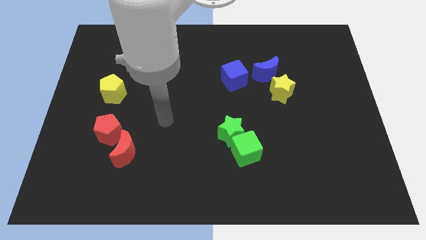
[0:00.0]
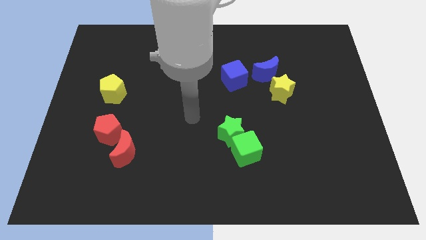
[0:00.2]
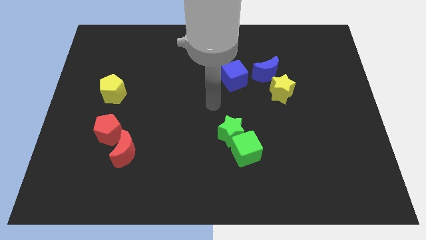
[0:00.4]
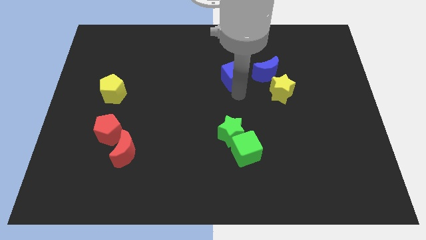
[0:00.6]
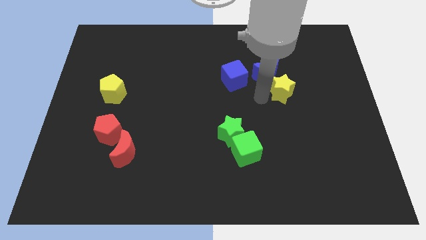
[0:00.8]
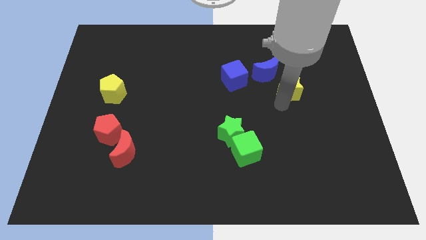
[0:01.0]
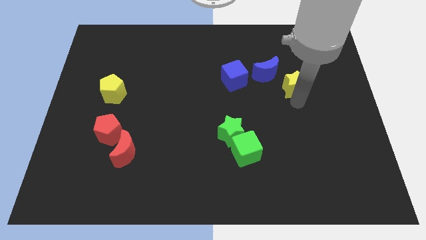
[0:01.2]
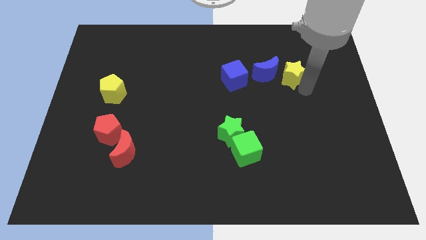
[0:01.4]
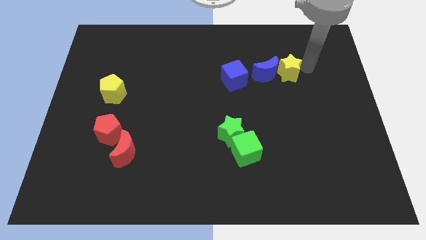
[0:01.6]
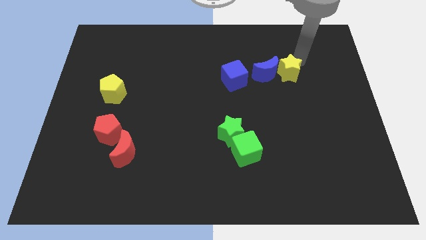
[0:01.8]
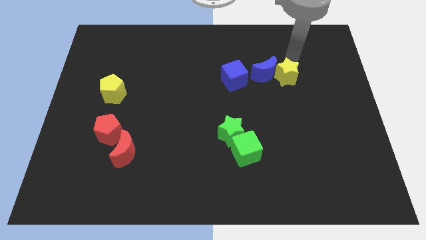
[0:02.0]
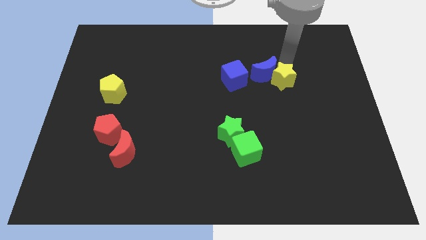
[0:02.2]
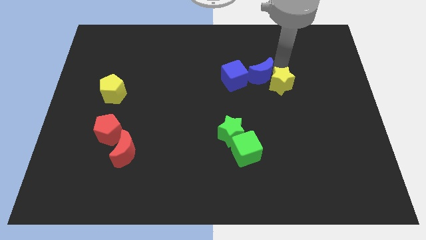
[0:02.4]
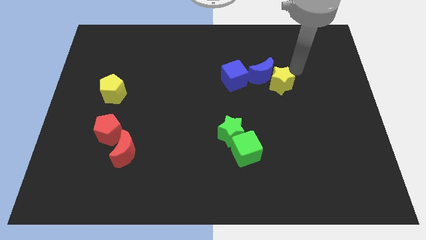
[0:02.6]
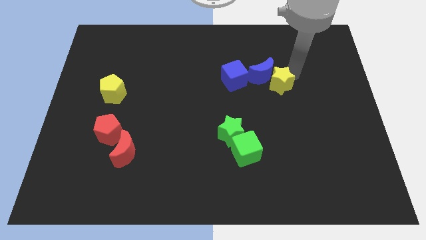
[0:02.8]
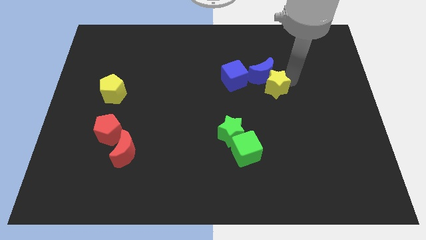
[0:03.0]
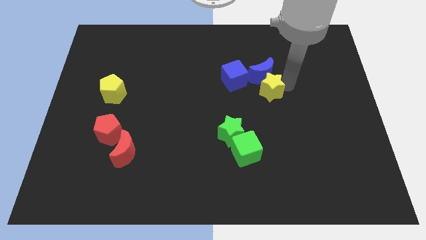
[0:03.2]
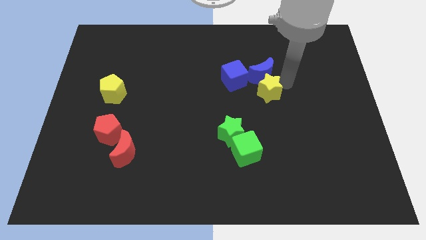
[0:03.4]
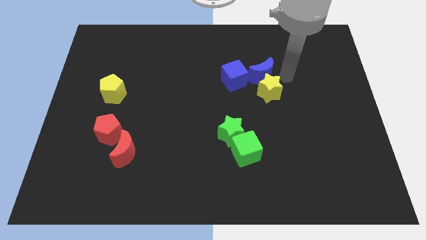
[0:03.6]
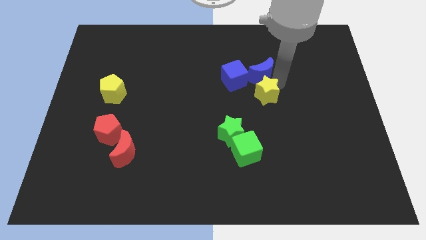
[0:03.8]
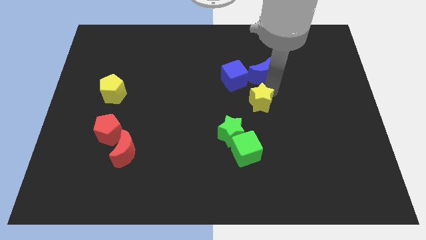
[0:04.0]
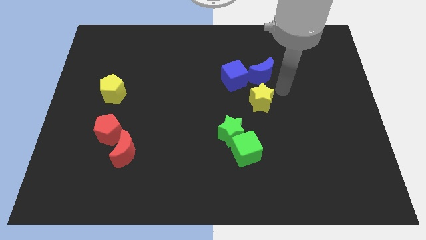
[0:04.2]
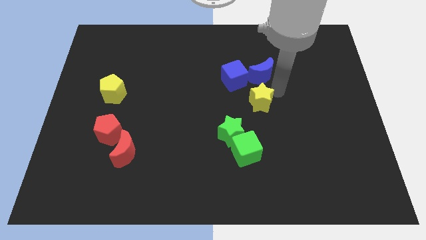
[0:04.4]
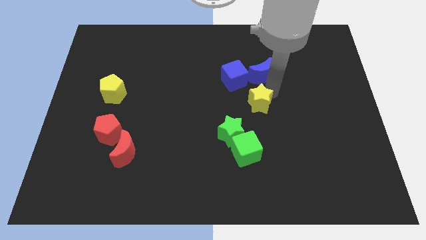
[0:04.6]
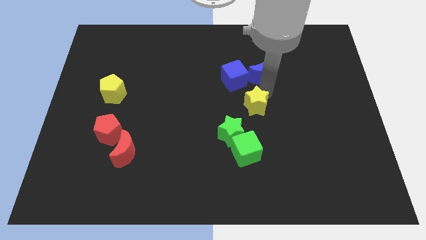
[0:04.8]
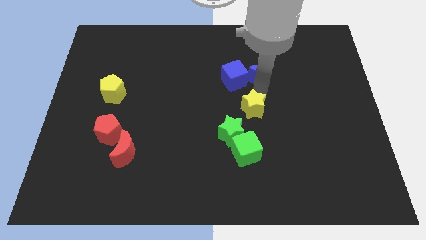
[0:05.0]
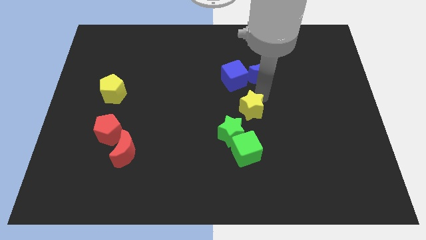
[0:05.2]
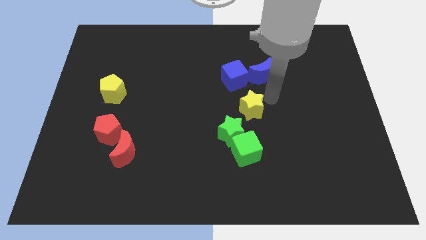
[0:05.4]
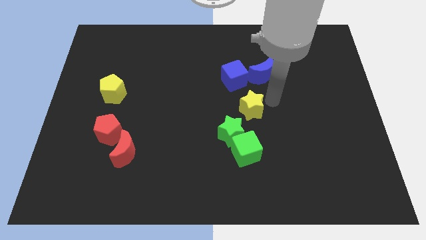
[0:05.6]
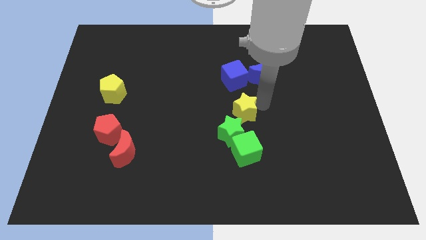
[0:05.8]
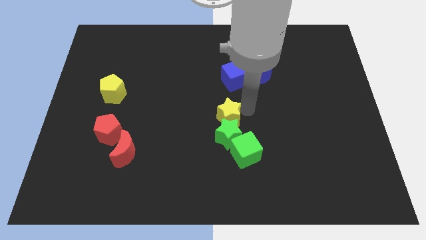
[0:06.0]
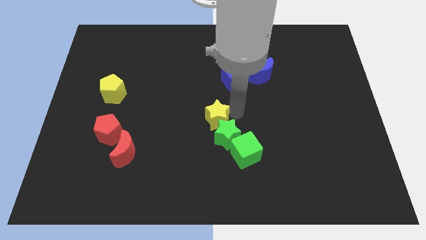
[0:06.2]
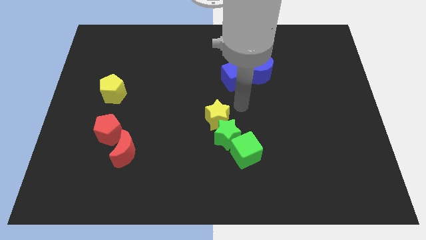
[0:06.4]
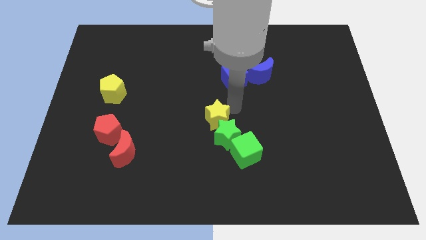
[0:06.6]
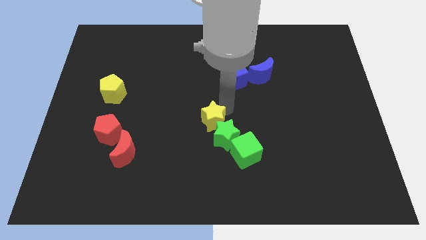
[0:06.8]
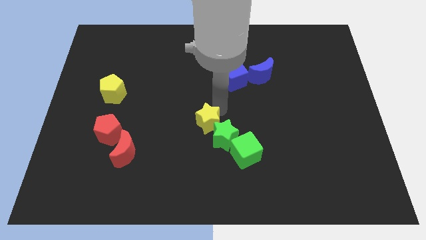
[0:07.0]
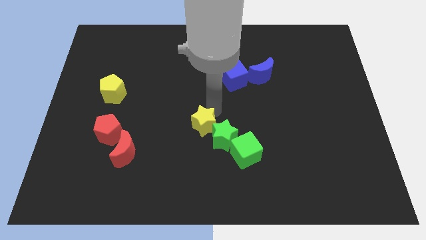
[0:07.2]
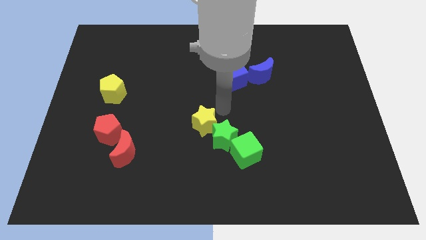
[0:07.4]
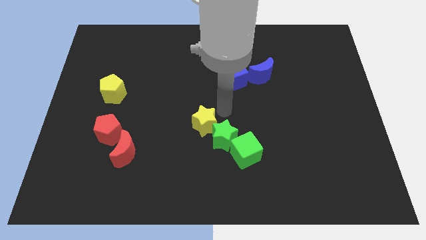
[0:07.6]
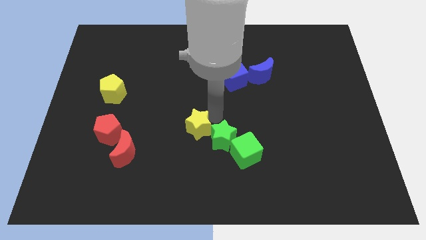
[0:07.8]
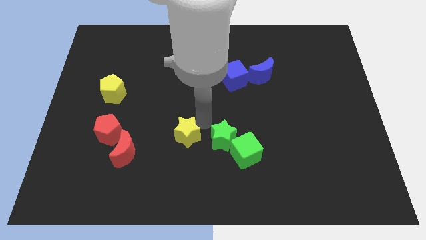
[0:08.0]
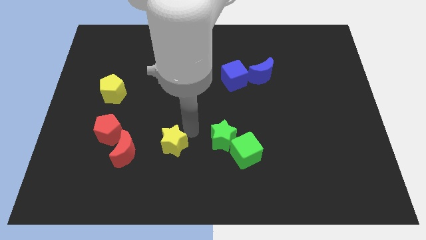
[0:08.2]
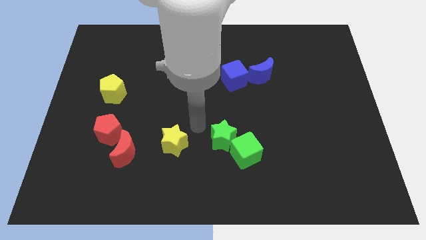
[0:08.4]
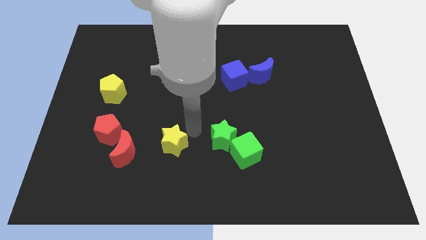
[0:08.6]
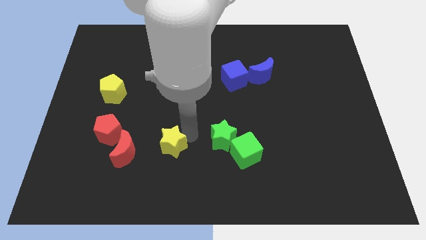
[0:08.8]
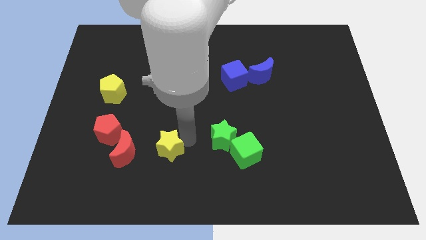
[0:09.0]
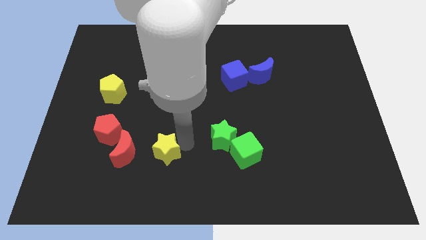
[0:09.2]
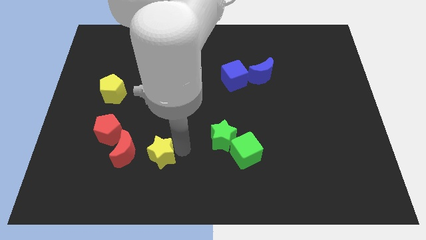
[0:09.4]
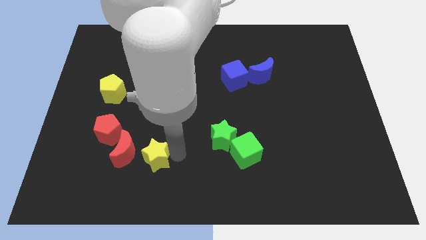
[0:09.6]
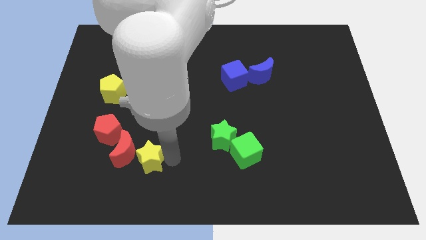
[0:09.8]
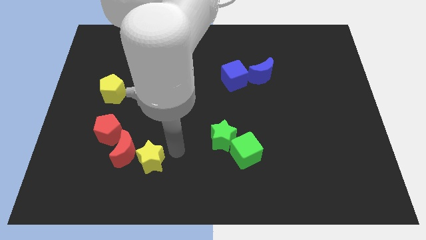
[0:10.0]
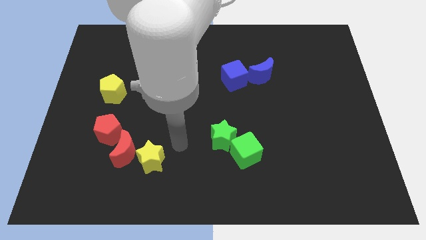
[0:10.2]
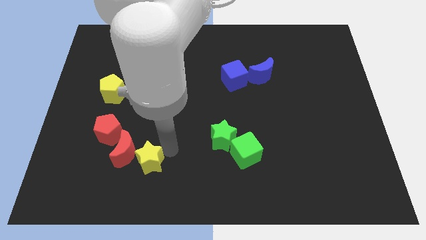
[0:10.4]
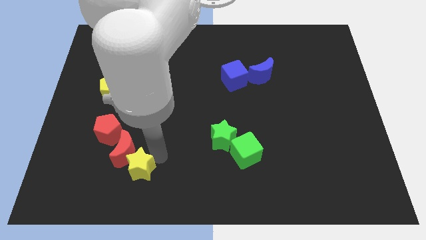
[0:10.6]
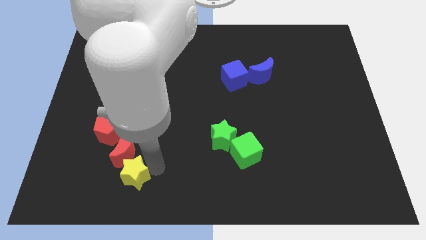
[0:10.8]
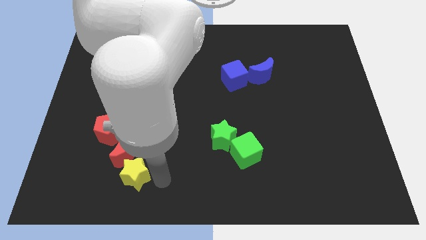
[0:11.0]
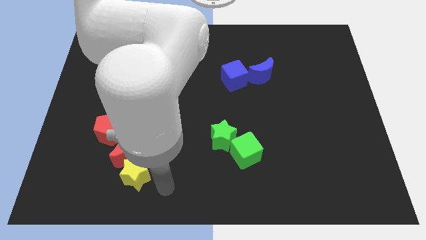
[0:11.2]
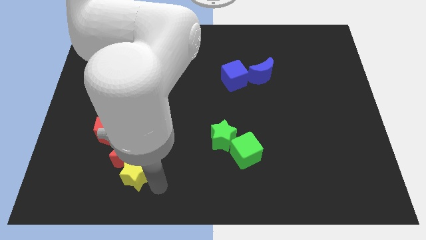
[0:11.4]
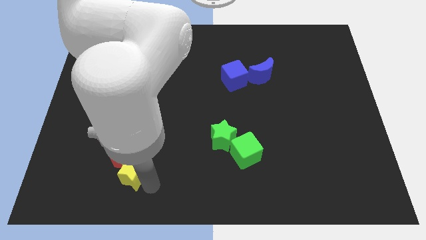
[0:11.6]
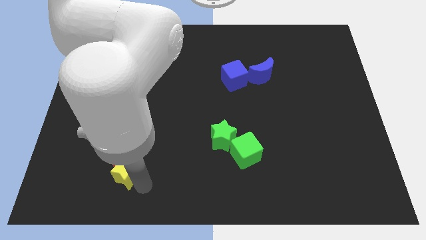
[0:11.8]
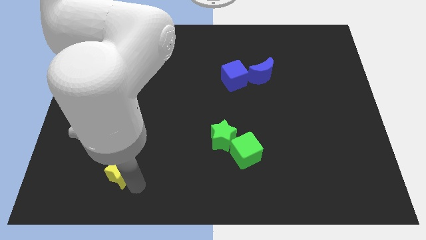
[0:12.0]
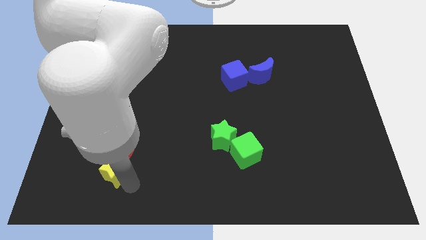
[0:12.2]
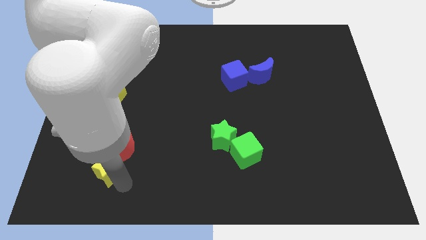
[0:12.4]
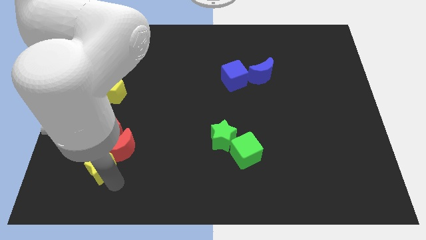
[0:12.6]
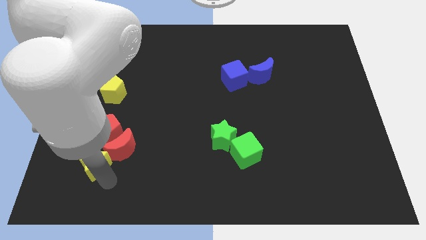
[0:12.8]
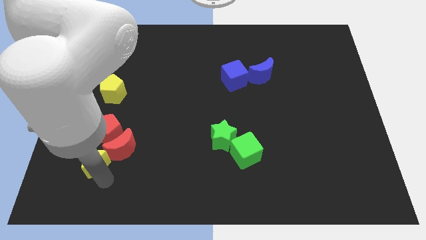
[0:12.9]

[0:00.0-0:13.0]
push the yellow star to the bottom left side of the red pentagon

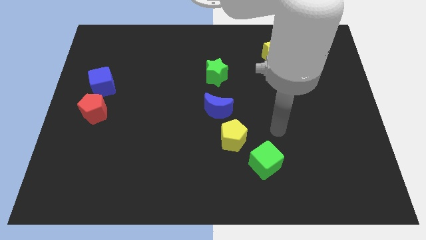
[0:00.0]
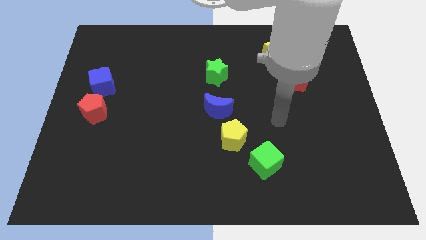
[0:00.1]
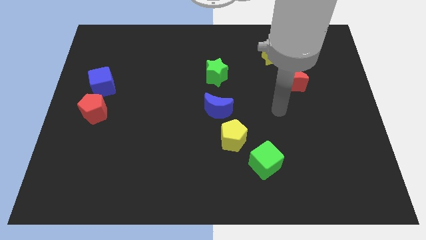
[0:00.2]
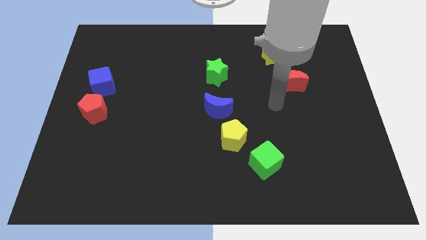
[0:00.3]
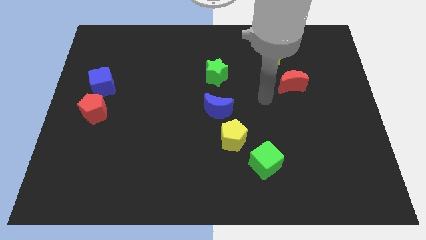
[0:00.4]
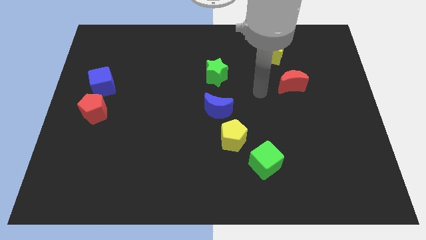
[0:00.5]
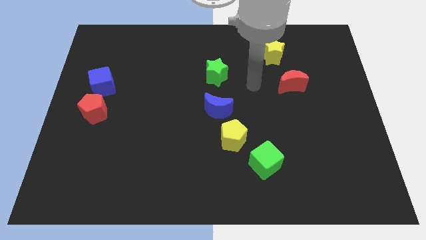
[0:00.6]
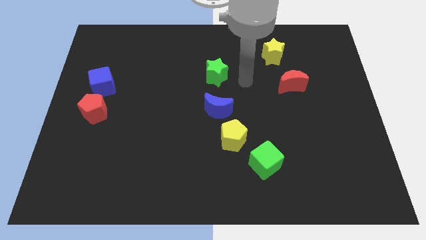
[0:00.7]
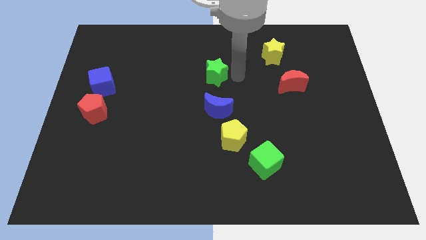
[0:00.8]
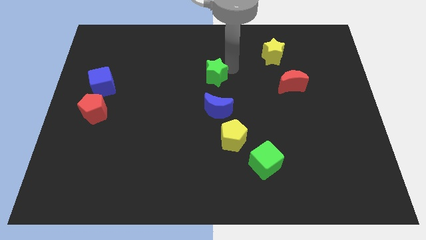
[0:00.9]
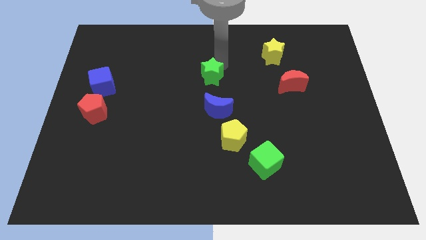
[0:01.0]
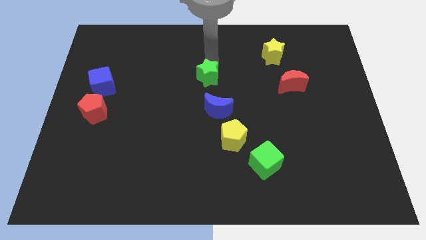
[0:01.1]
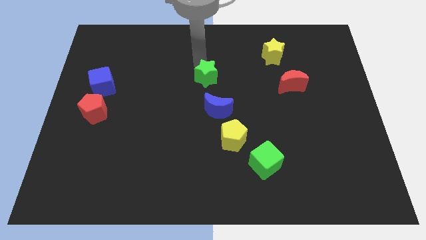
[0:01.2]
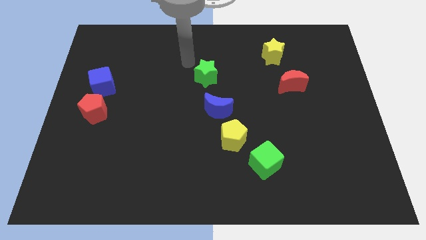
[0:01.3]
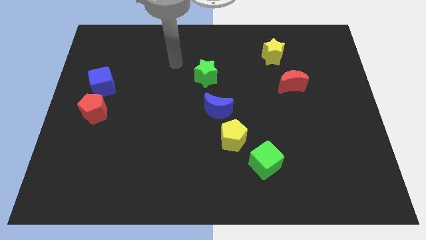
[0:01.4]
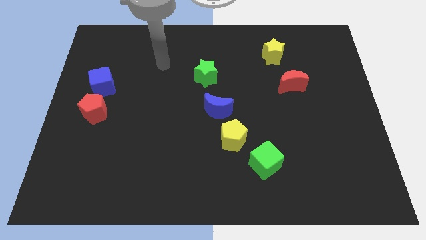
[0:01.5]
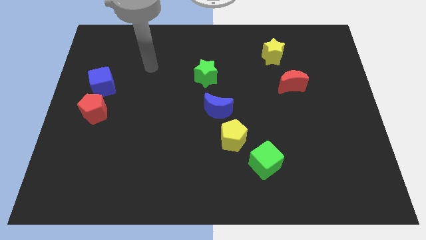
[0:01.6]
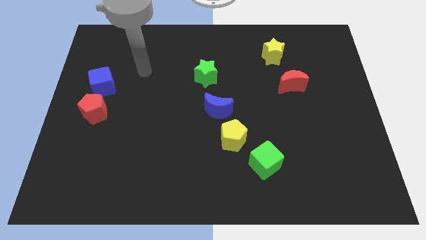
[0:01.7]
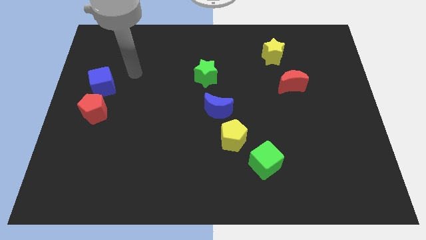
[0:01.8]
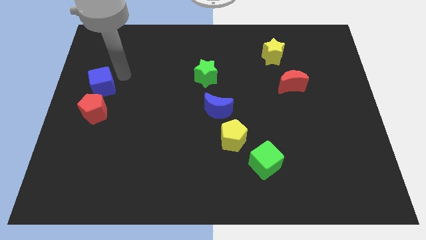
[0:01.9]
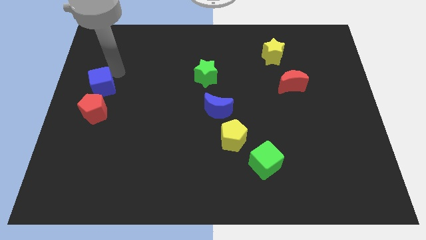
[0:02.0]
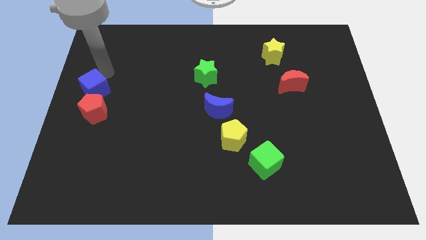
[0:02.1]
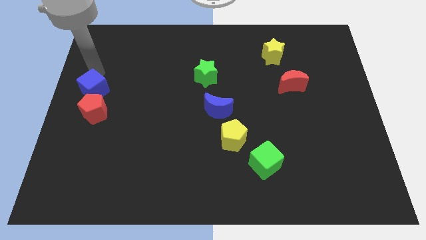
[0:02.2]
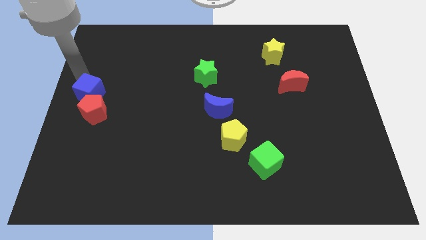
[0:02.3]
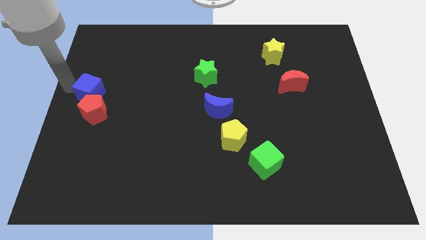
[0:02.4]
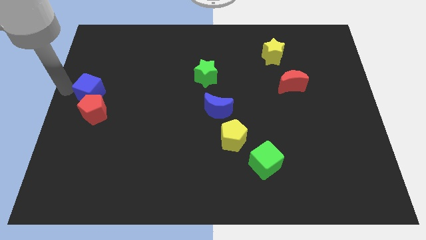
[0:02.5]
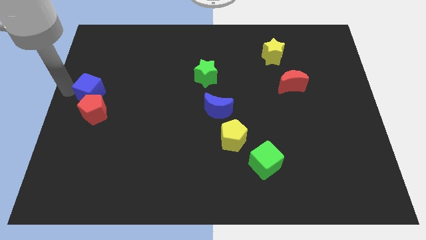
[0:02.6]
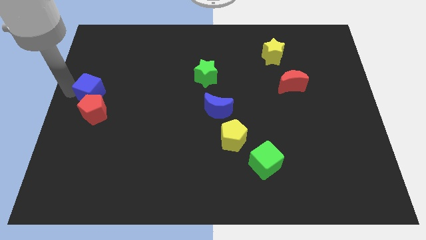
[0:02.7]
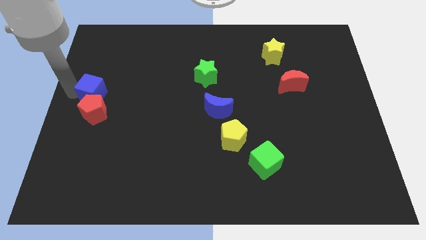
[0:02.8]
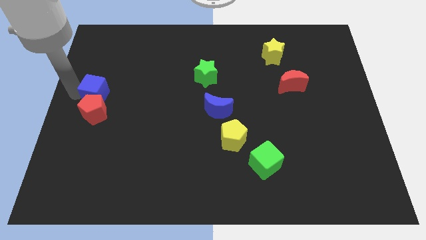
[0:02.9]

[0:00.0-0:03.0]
push the blue cube to the top right of the red pentagon
